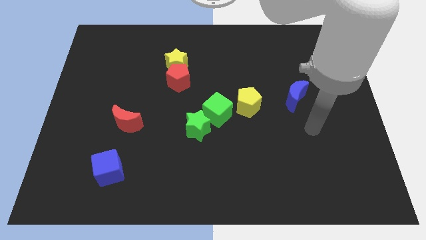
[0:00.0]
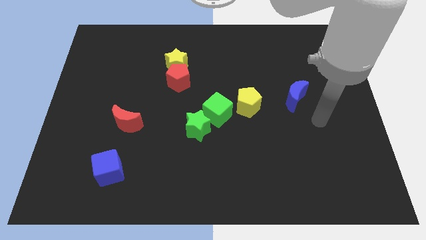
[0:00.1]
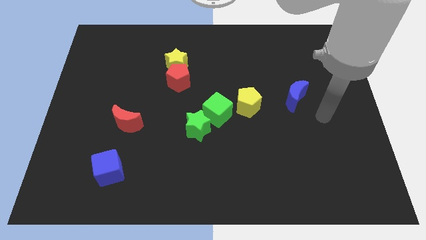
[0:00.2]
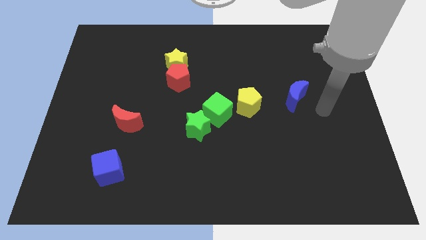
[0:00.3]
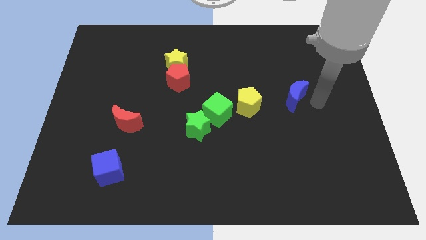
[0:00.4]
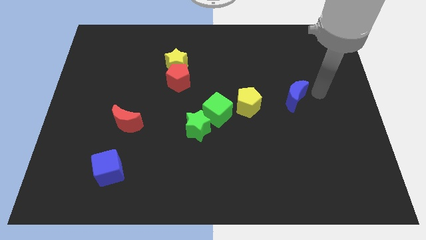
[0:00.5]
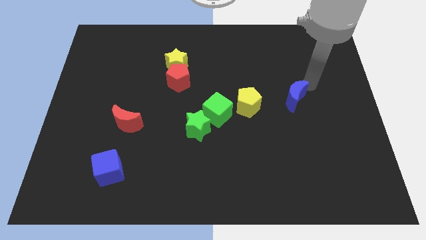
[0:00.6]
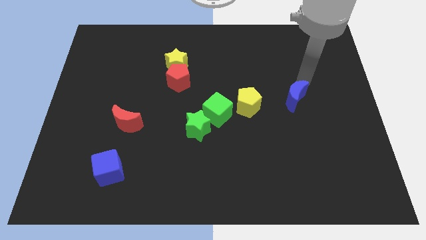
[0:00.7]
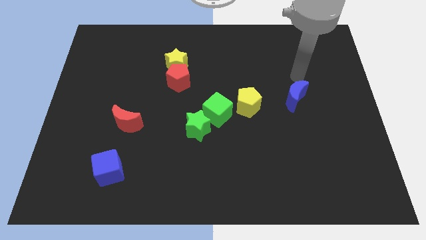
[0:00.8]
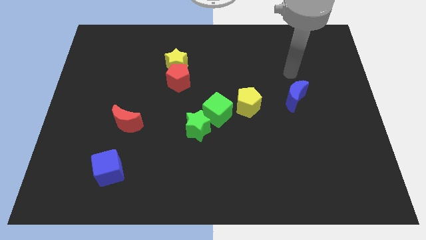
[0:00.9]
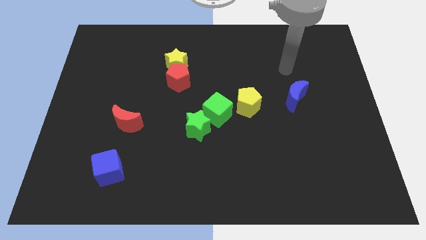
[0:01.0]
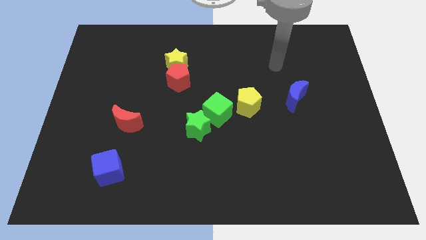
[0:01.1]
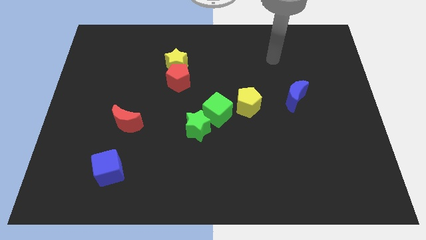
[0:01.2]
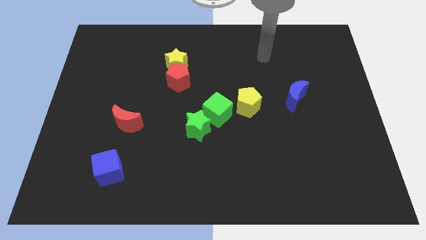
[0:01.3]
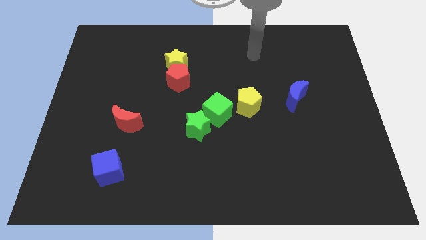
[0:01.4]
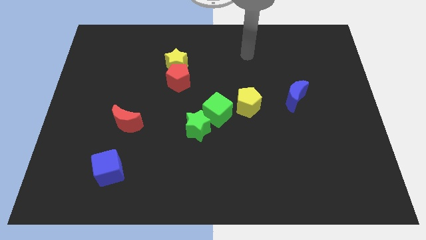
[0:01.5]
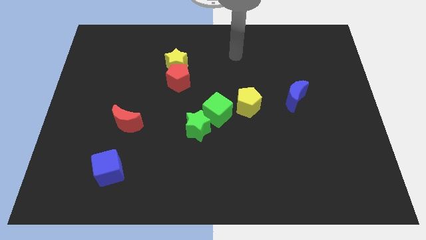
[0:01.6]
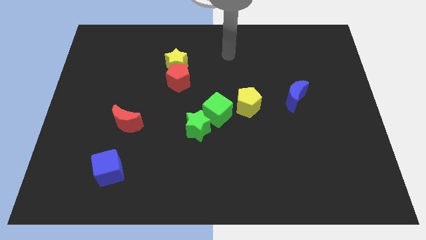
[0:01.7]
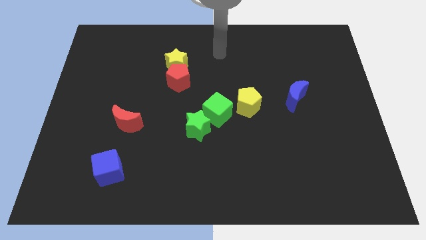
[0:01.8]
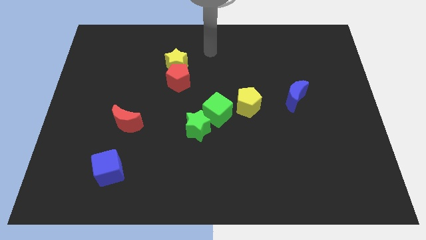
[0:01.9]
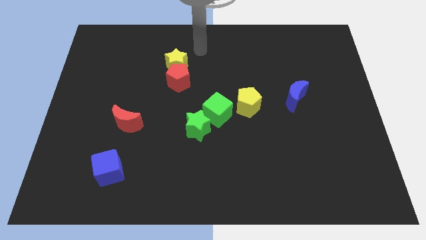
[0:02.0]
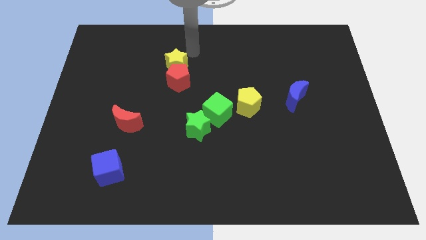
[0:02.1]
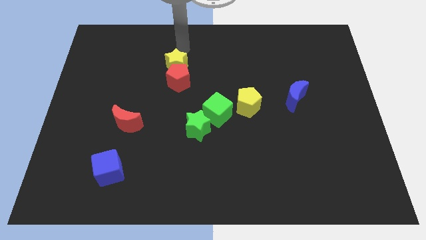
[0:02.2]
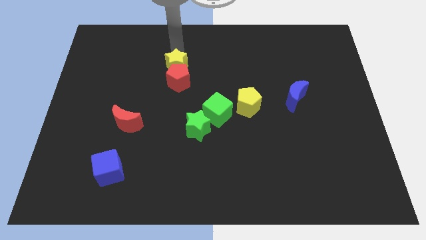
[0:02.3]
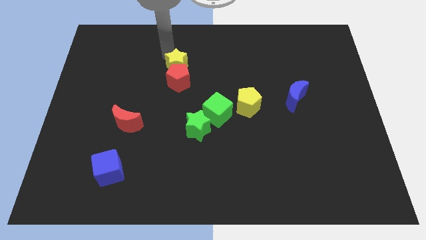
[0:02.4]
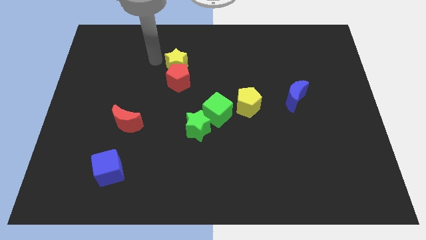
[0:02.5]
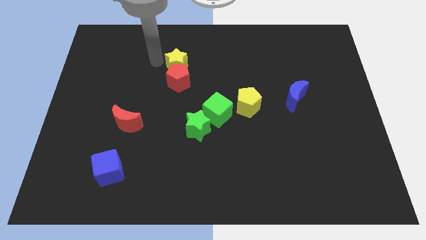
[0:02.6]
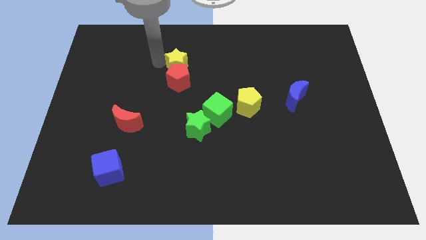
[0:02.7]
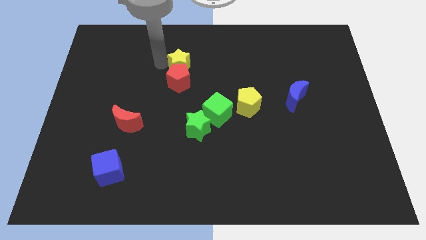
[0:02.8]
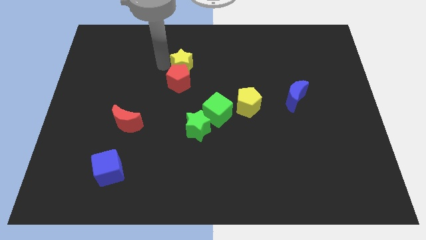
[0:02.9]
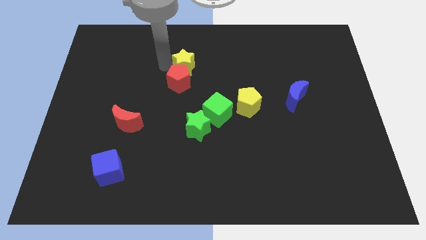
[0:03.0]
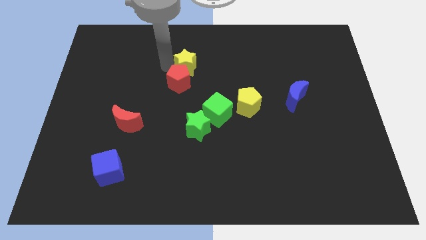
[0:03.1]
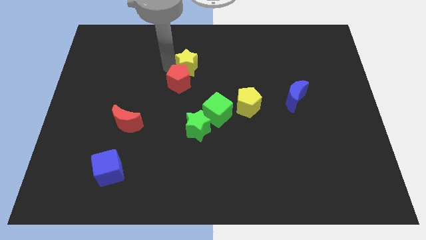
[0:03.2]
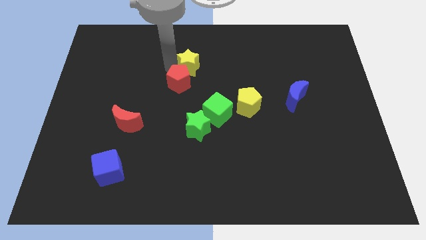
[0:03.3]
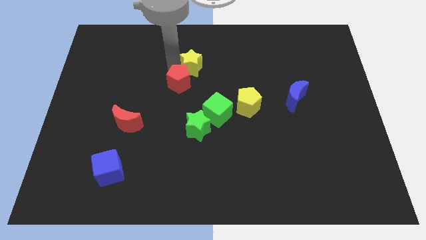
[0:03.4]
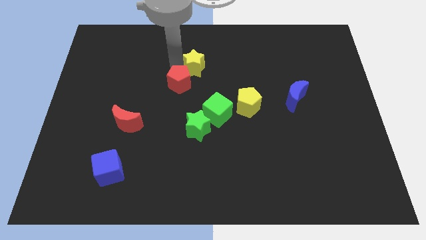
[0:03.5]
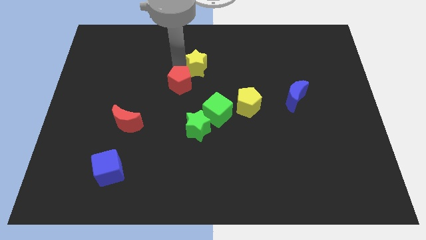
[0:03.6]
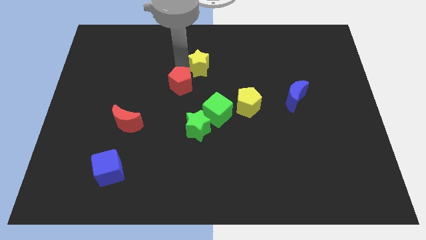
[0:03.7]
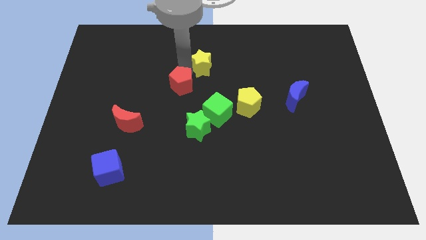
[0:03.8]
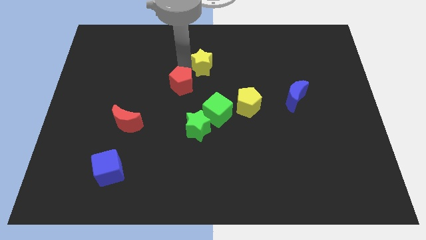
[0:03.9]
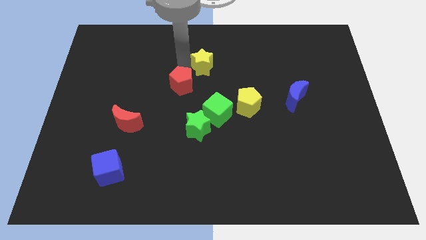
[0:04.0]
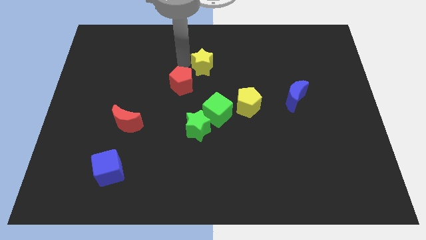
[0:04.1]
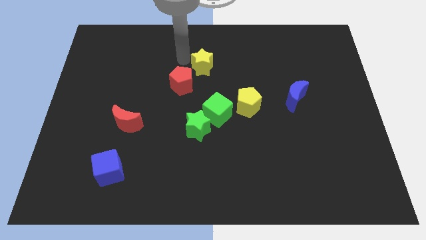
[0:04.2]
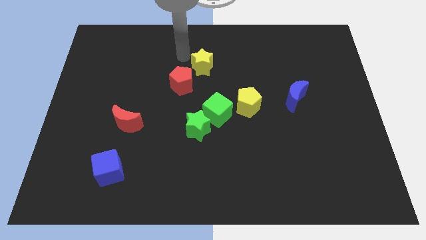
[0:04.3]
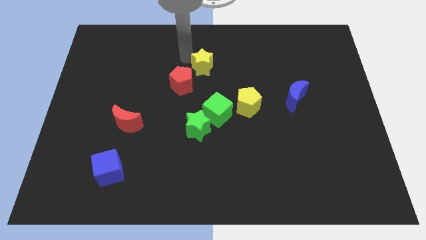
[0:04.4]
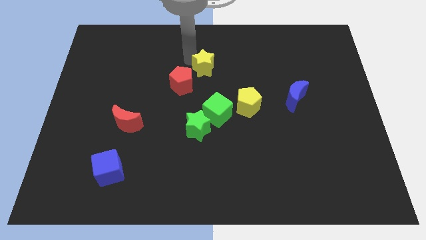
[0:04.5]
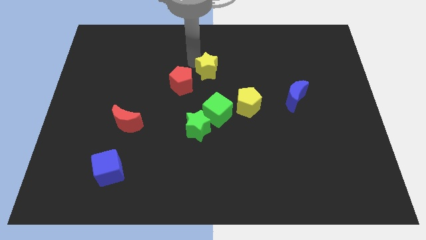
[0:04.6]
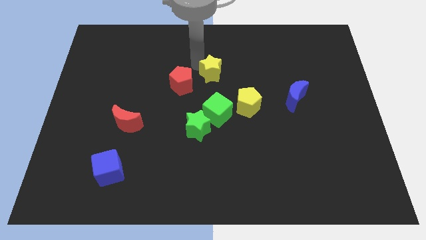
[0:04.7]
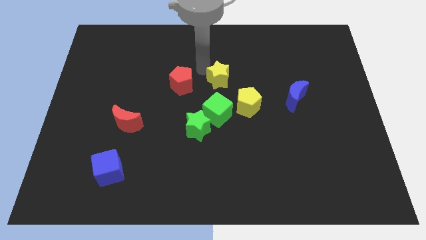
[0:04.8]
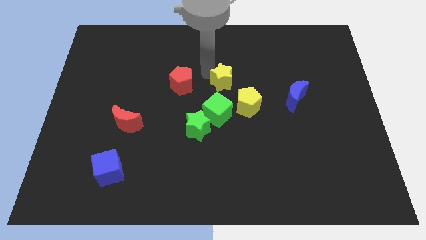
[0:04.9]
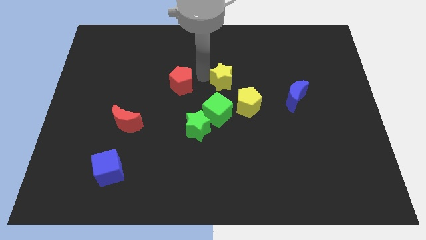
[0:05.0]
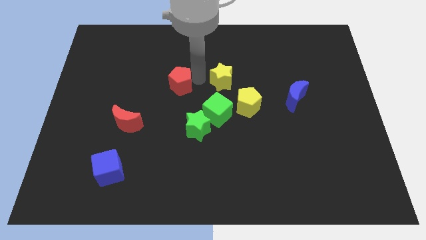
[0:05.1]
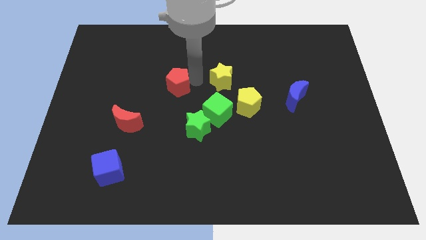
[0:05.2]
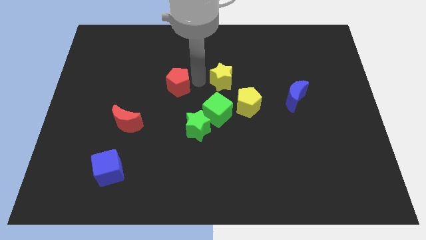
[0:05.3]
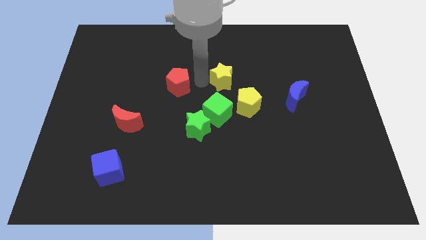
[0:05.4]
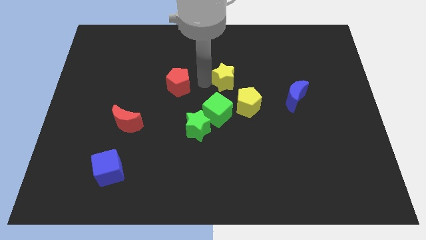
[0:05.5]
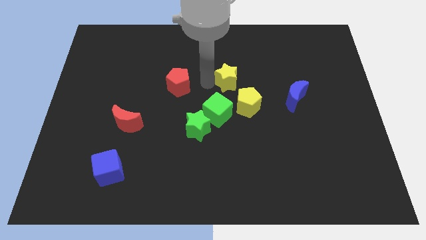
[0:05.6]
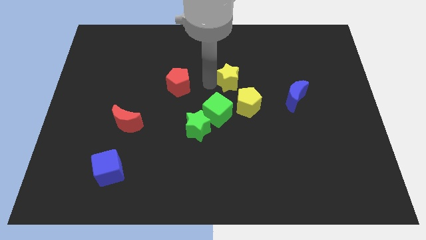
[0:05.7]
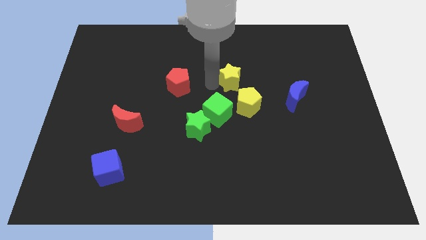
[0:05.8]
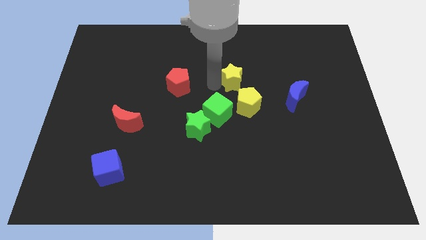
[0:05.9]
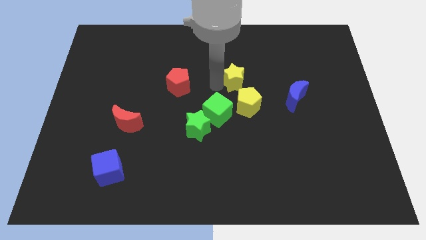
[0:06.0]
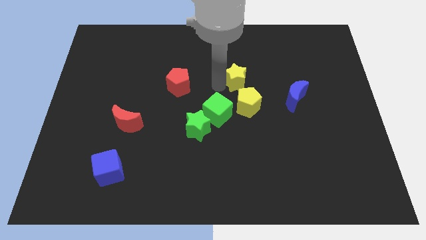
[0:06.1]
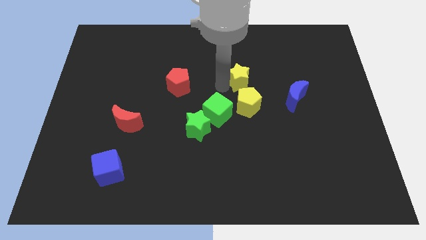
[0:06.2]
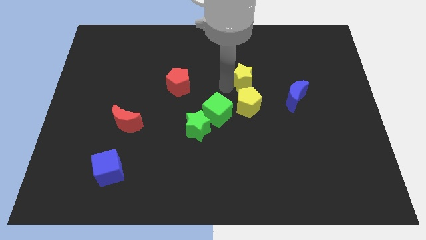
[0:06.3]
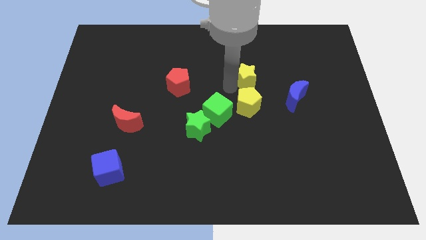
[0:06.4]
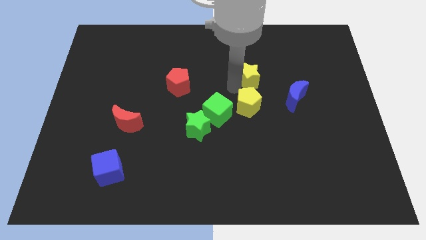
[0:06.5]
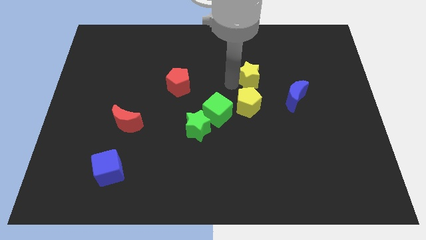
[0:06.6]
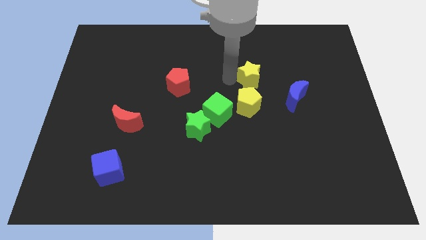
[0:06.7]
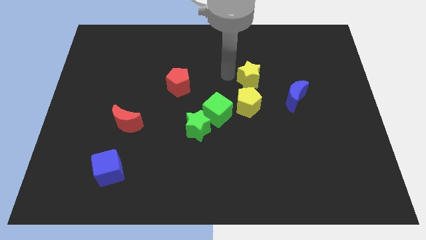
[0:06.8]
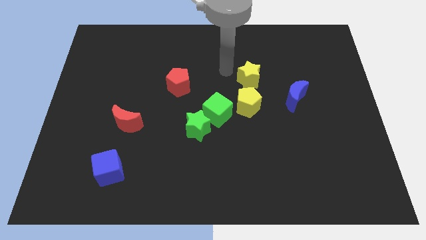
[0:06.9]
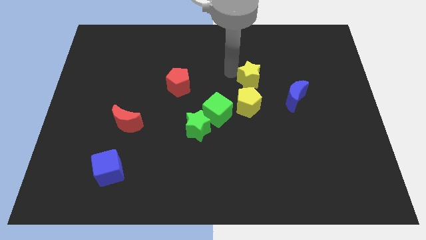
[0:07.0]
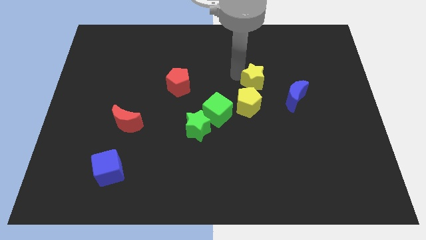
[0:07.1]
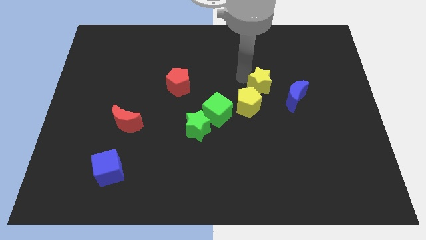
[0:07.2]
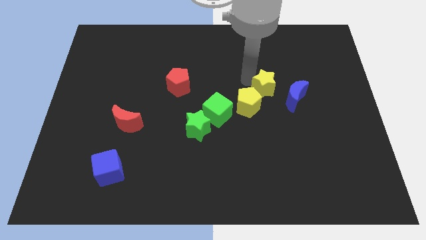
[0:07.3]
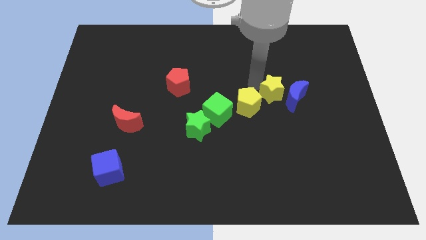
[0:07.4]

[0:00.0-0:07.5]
put the yellow star close to the blue moon
